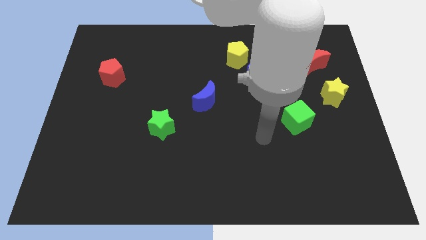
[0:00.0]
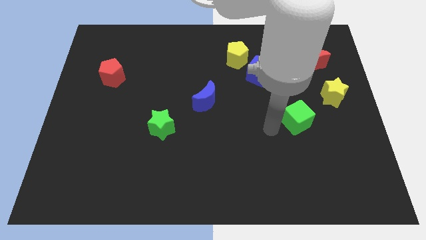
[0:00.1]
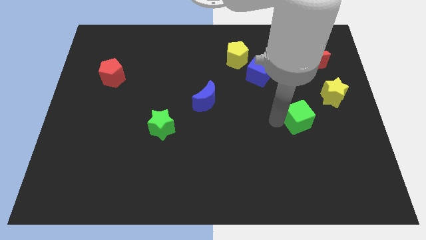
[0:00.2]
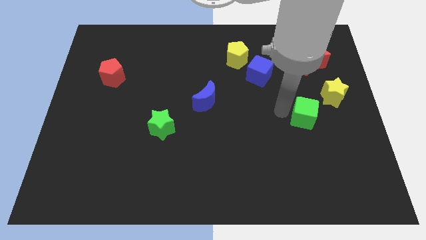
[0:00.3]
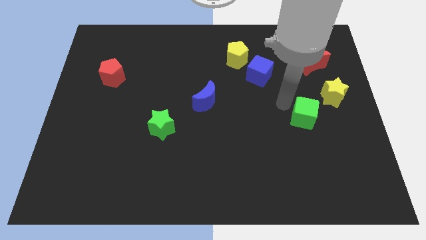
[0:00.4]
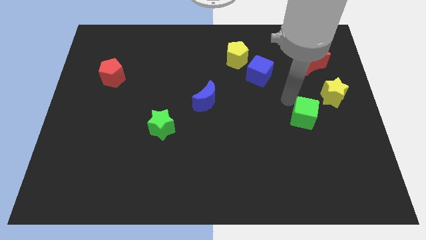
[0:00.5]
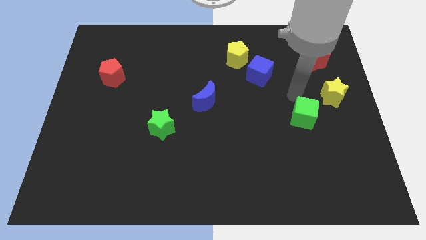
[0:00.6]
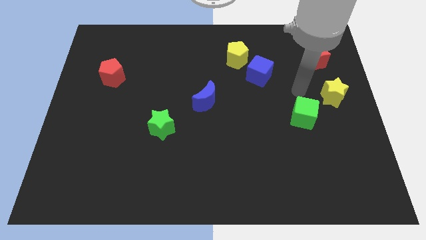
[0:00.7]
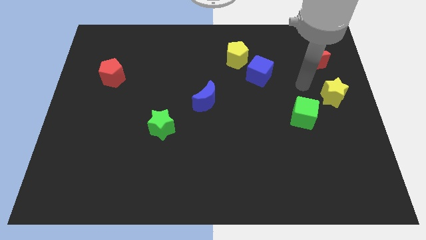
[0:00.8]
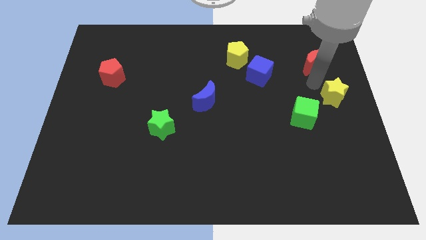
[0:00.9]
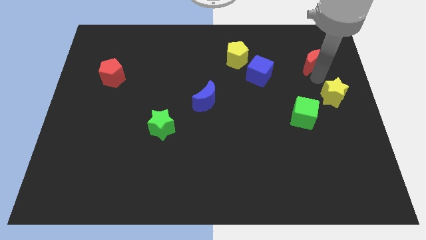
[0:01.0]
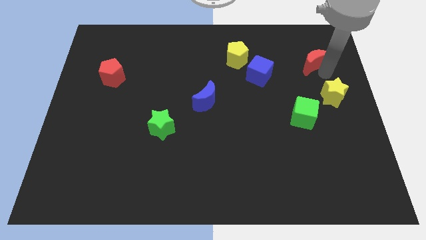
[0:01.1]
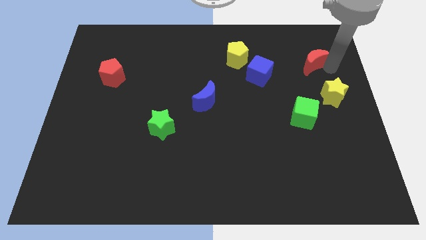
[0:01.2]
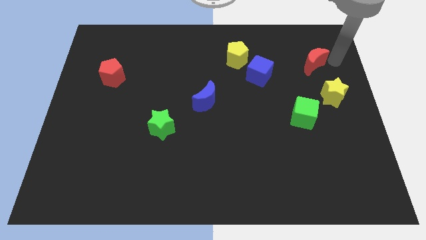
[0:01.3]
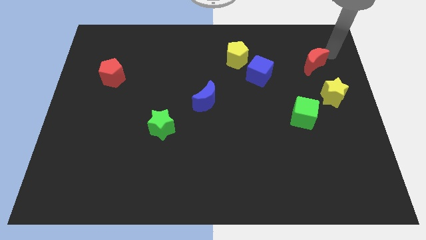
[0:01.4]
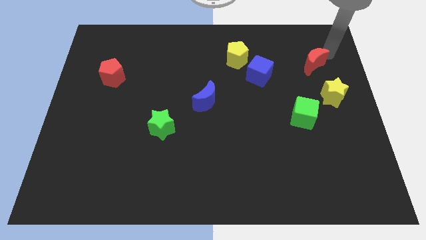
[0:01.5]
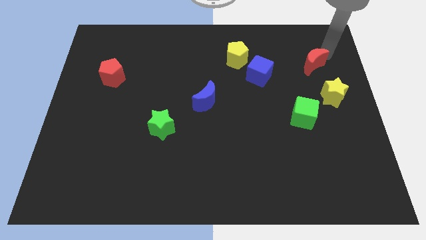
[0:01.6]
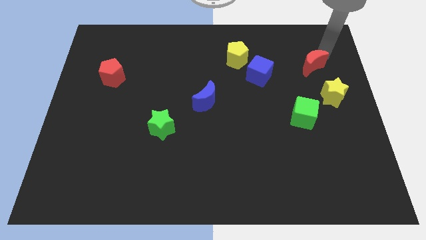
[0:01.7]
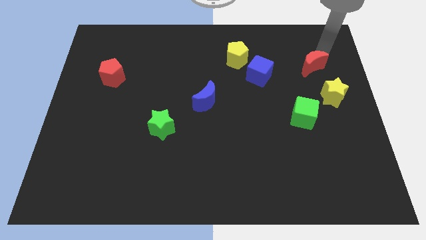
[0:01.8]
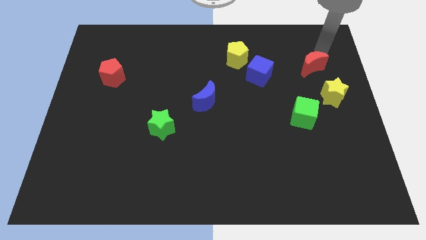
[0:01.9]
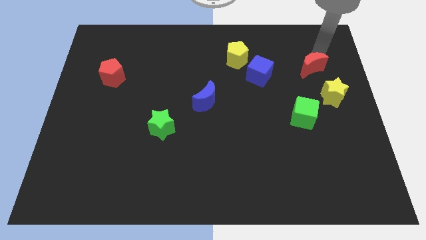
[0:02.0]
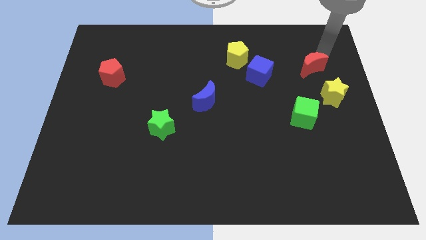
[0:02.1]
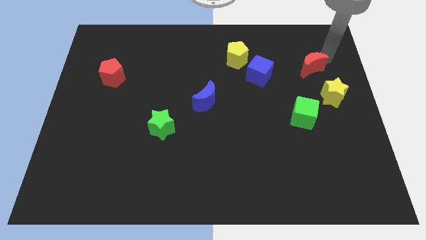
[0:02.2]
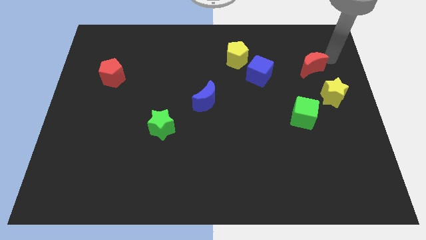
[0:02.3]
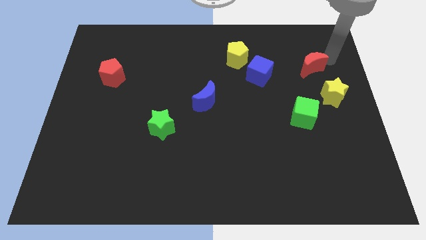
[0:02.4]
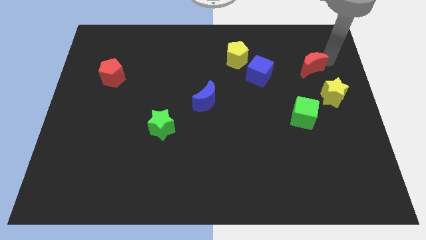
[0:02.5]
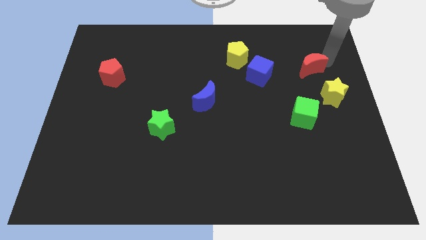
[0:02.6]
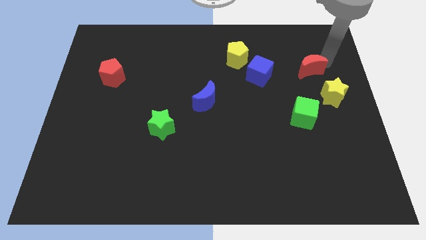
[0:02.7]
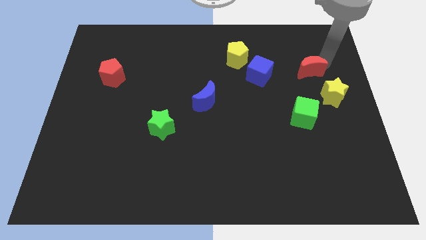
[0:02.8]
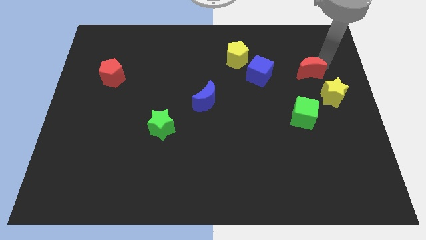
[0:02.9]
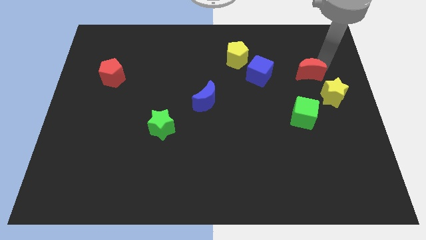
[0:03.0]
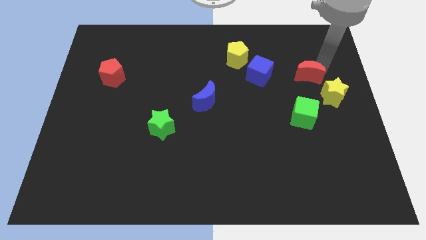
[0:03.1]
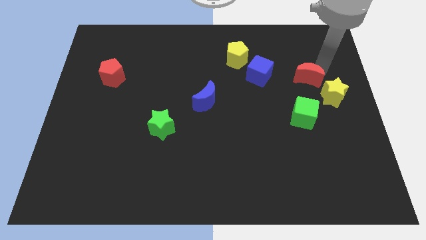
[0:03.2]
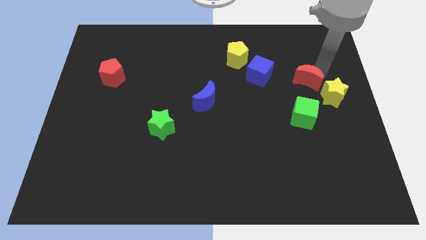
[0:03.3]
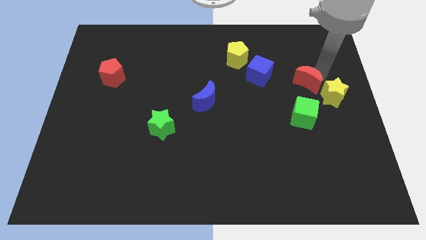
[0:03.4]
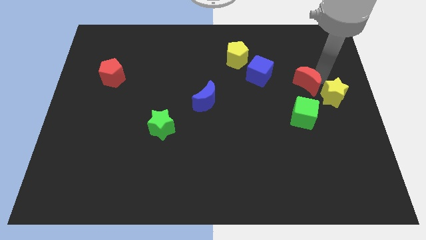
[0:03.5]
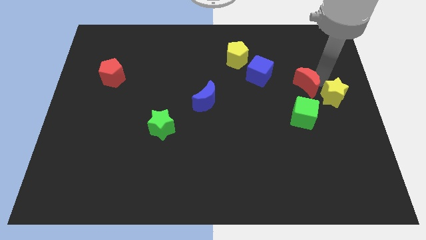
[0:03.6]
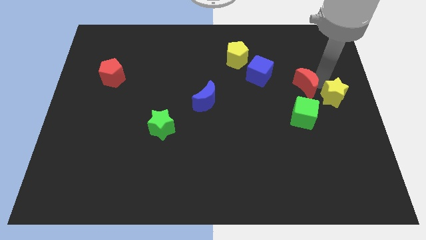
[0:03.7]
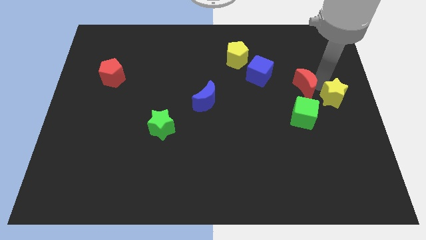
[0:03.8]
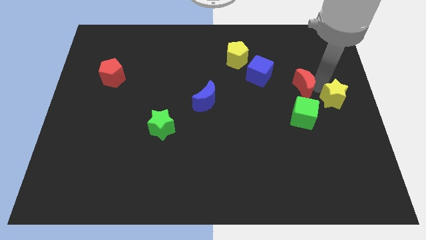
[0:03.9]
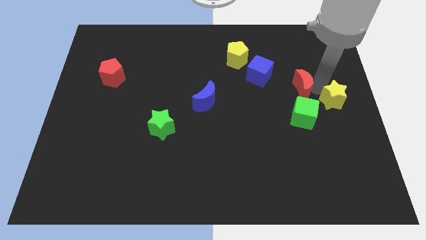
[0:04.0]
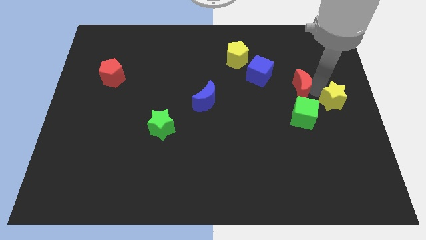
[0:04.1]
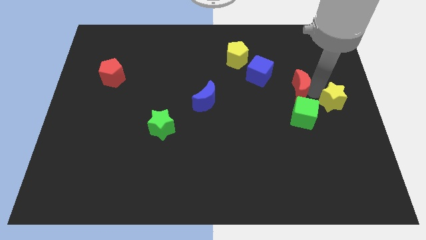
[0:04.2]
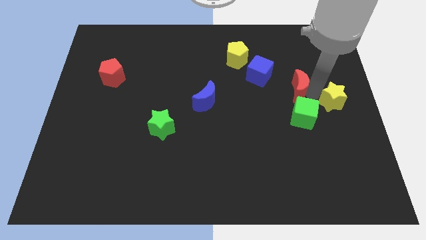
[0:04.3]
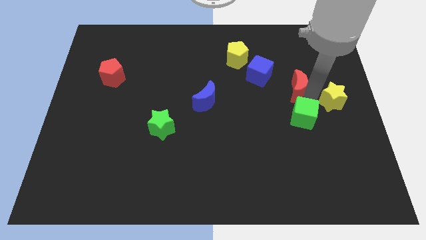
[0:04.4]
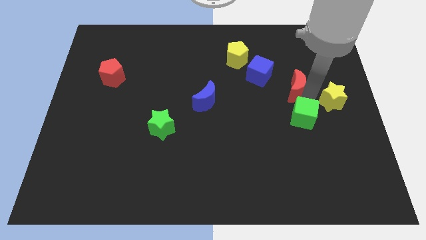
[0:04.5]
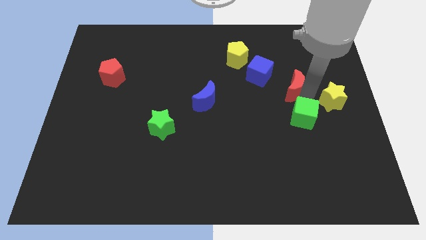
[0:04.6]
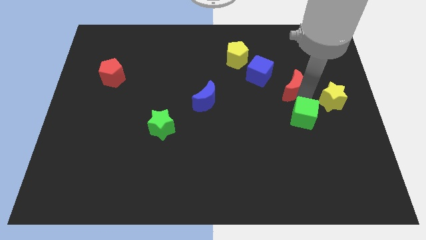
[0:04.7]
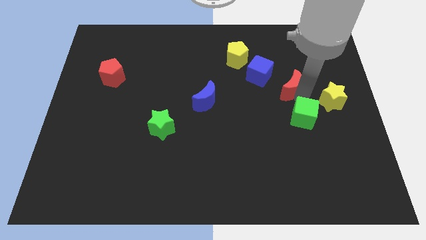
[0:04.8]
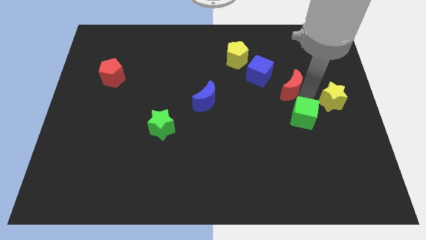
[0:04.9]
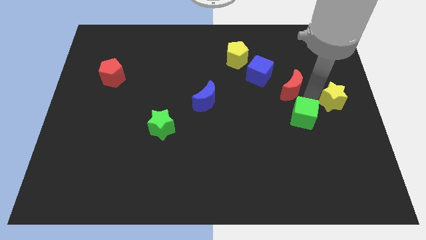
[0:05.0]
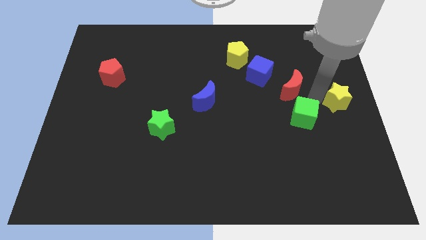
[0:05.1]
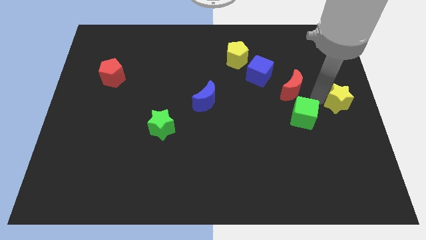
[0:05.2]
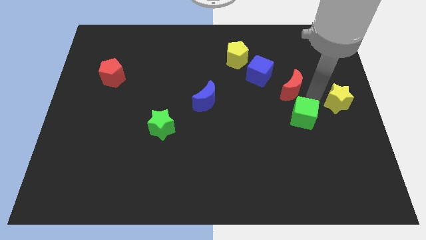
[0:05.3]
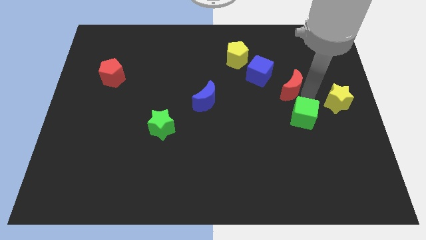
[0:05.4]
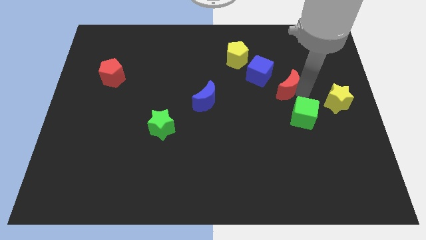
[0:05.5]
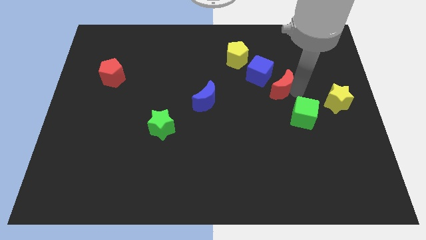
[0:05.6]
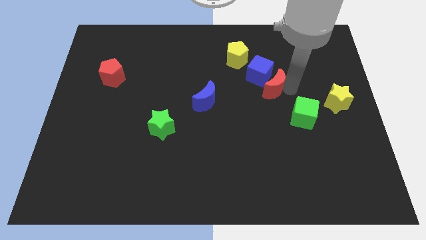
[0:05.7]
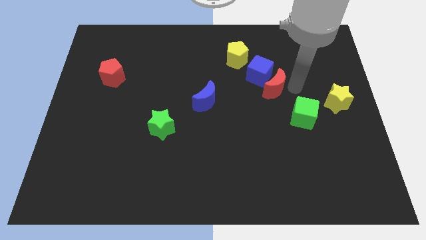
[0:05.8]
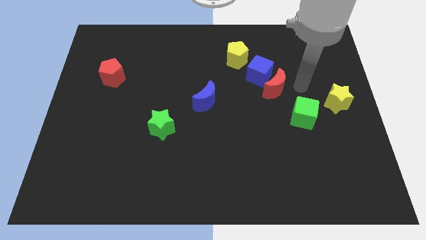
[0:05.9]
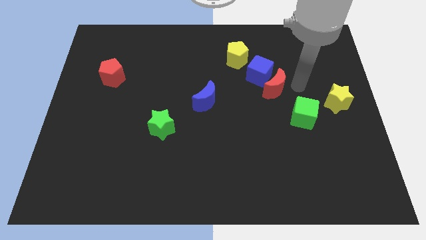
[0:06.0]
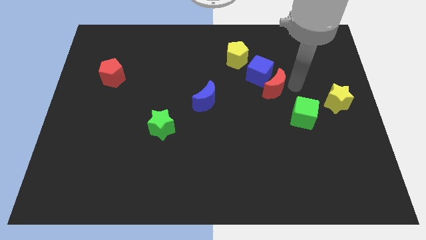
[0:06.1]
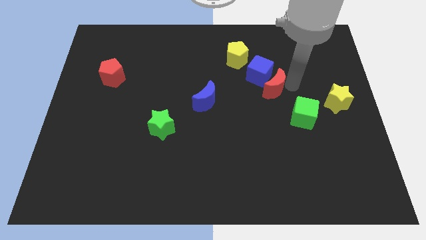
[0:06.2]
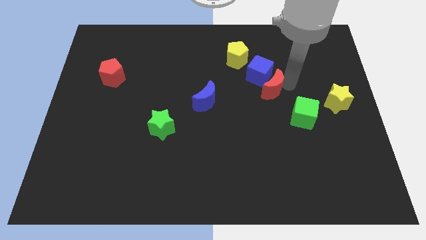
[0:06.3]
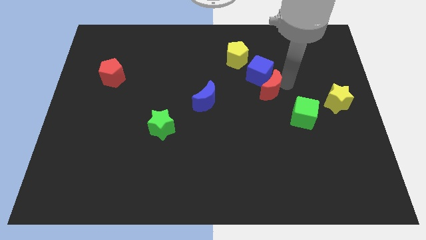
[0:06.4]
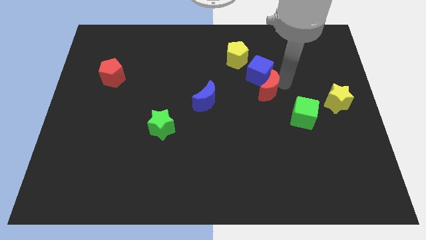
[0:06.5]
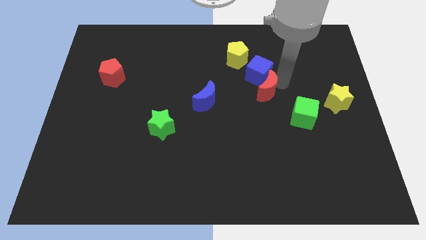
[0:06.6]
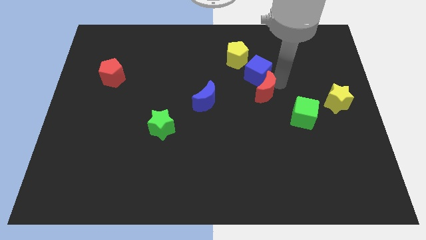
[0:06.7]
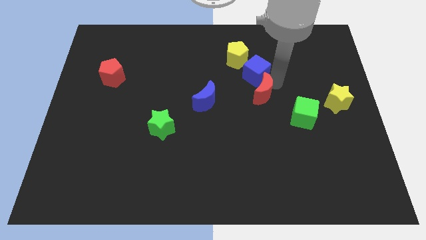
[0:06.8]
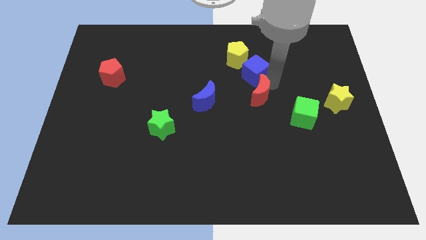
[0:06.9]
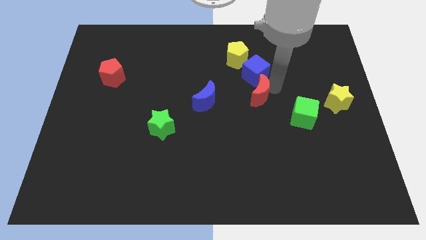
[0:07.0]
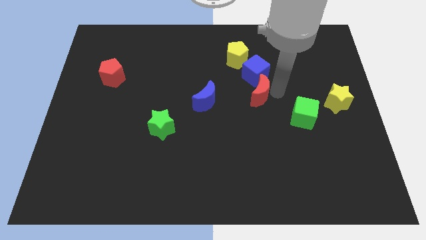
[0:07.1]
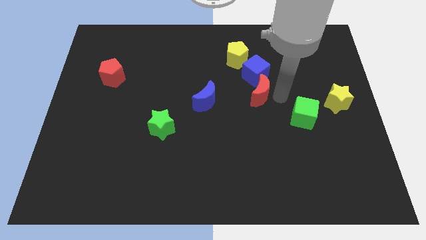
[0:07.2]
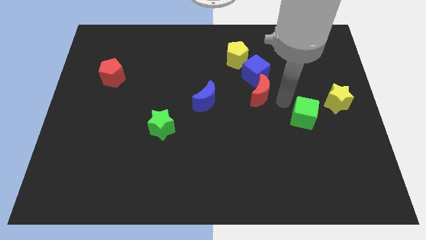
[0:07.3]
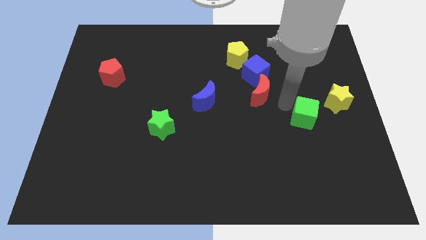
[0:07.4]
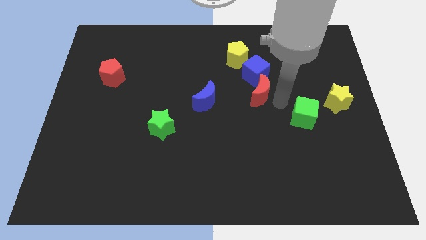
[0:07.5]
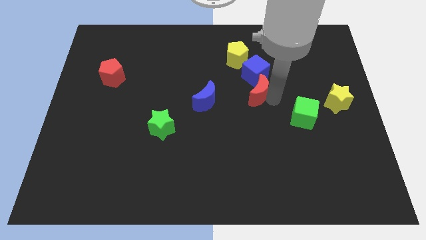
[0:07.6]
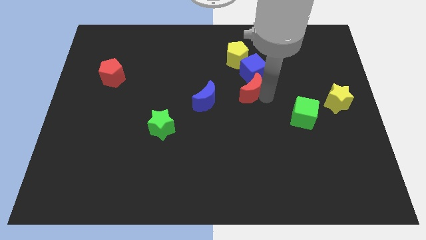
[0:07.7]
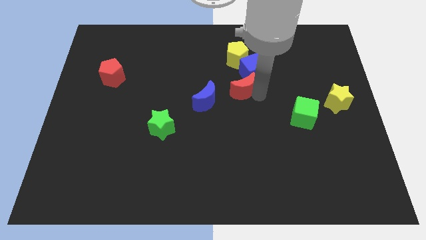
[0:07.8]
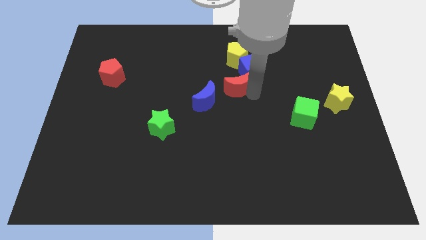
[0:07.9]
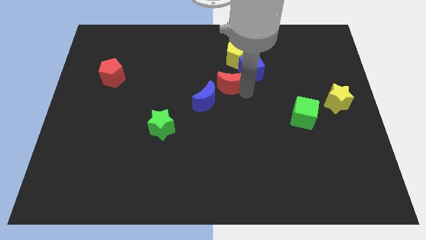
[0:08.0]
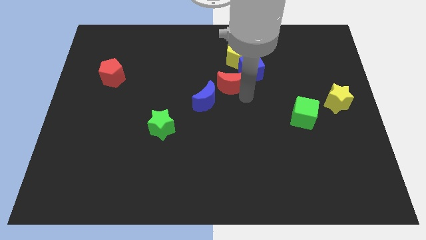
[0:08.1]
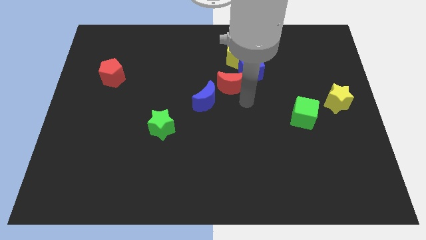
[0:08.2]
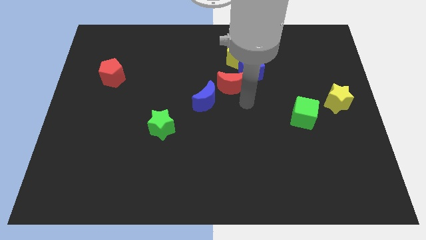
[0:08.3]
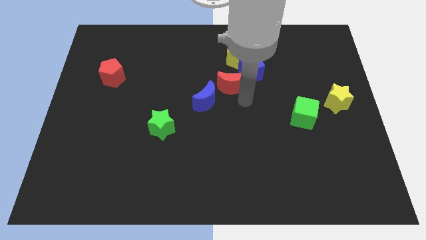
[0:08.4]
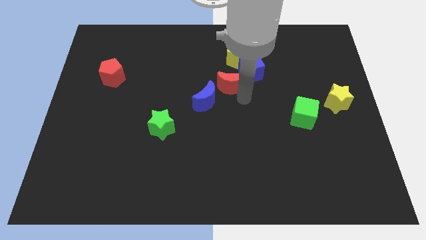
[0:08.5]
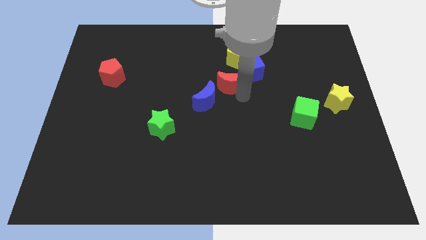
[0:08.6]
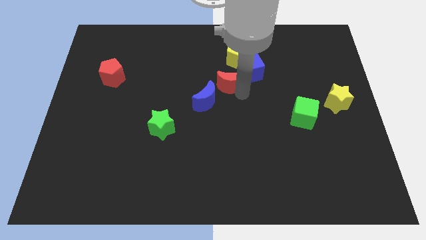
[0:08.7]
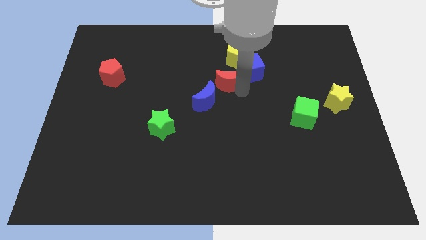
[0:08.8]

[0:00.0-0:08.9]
slide the red moon to the bottom left of the yellow pentagon
